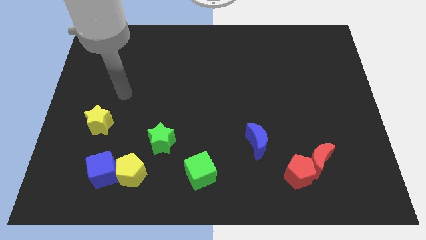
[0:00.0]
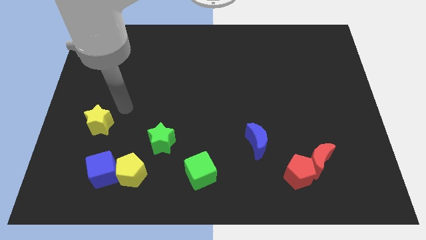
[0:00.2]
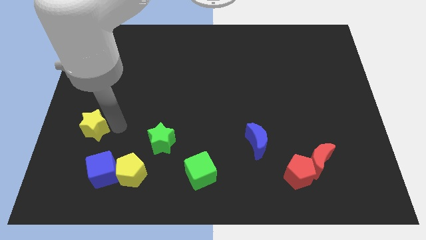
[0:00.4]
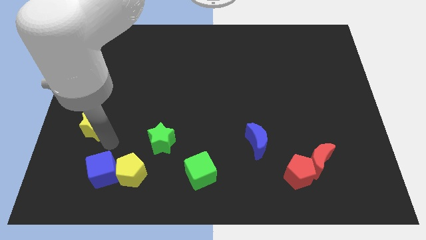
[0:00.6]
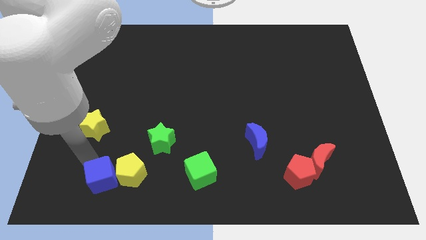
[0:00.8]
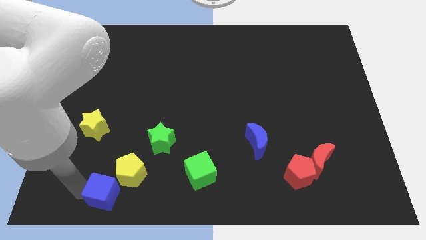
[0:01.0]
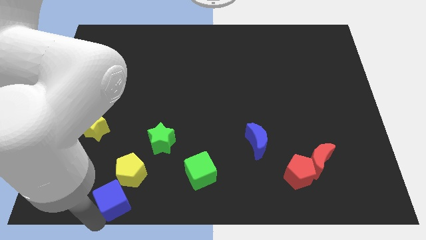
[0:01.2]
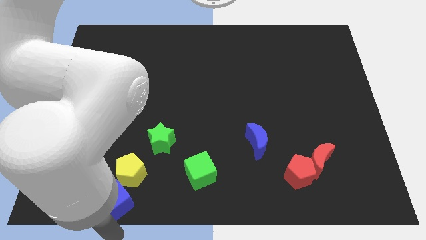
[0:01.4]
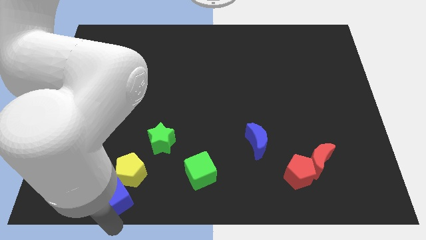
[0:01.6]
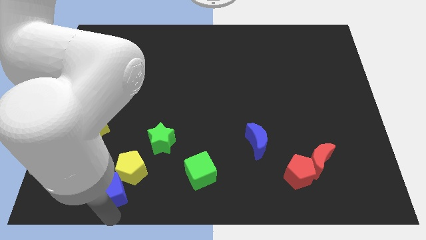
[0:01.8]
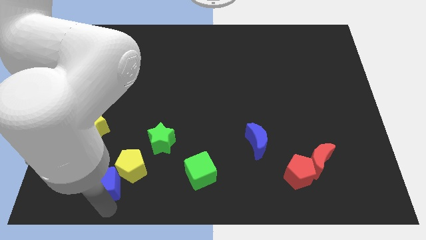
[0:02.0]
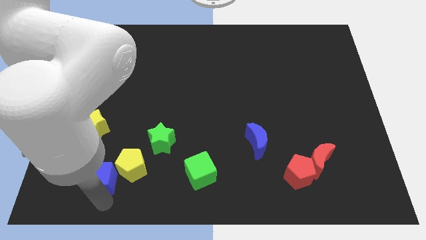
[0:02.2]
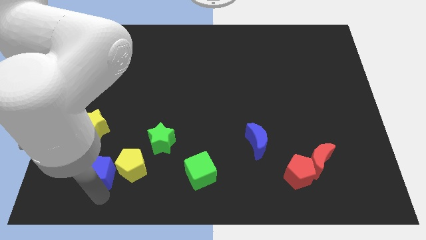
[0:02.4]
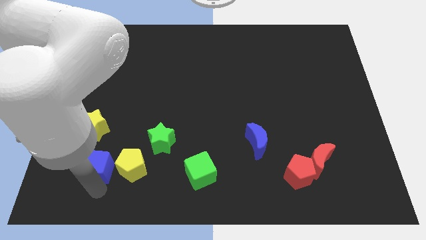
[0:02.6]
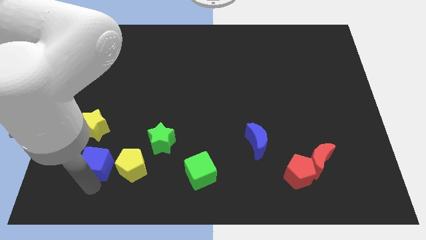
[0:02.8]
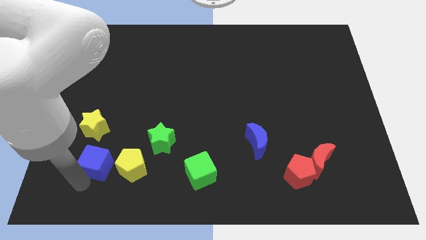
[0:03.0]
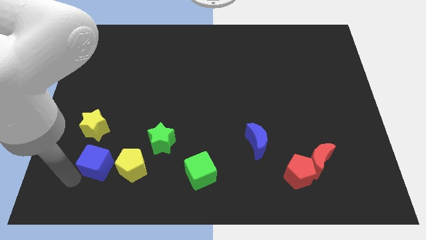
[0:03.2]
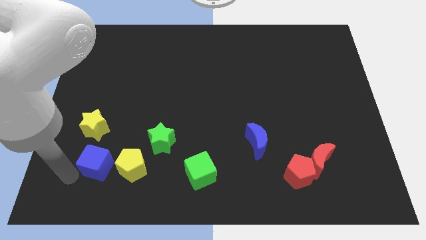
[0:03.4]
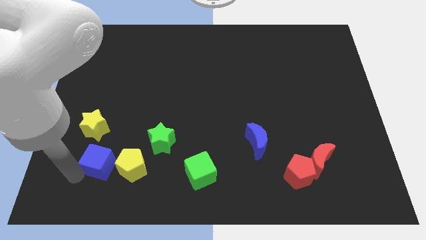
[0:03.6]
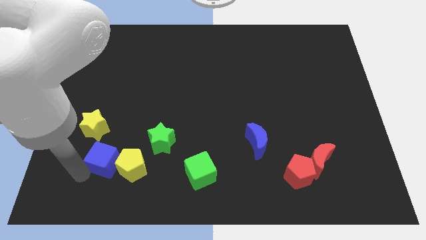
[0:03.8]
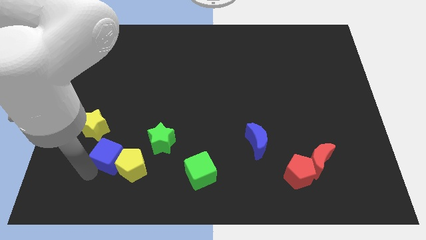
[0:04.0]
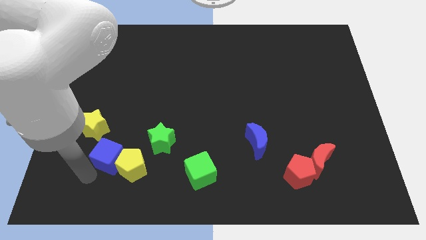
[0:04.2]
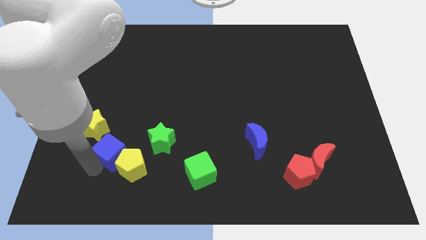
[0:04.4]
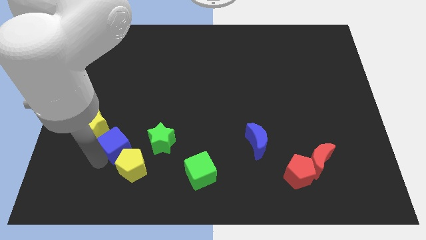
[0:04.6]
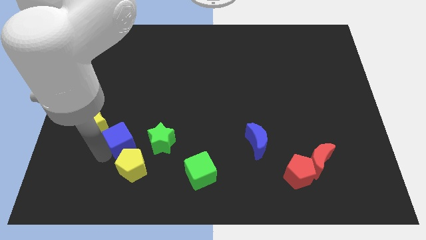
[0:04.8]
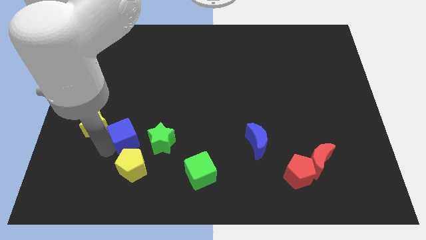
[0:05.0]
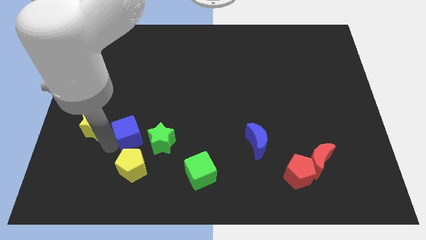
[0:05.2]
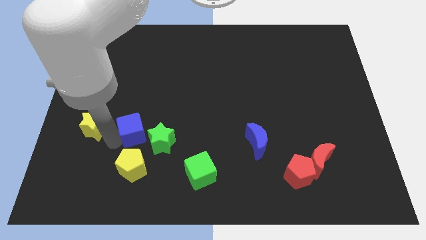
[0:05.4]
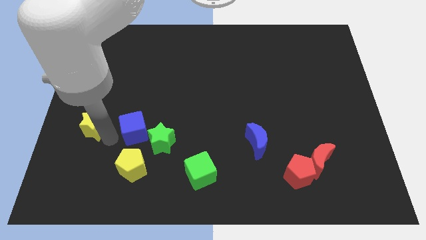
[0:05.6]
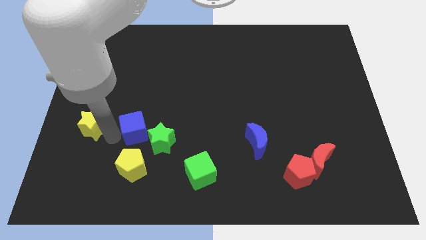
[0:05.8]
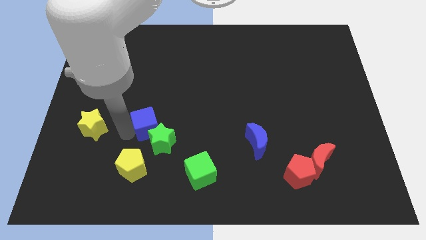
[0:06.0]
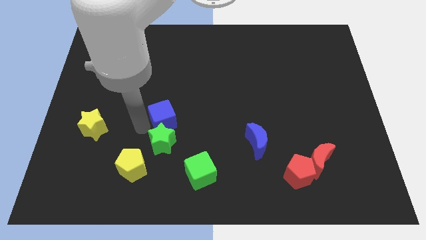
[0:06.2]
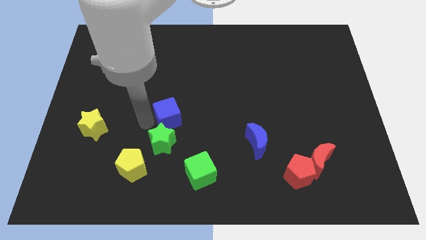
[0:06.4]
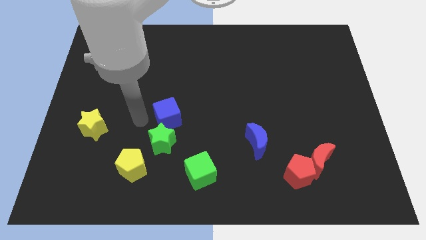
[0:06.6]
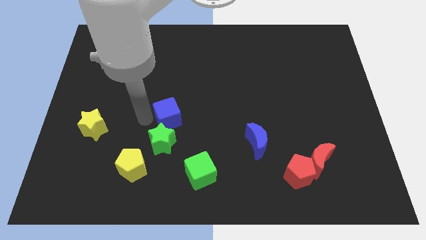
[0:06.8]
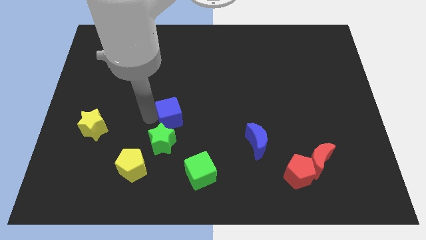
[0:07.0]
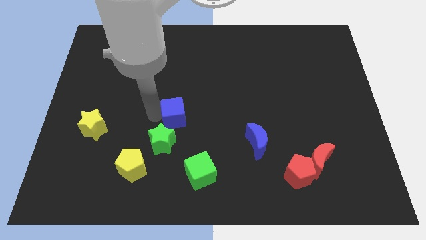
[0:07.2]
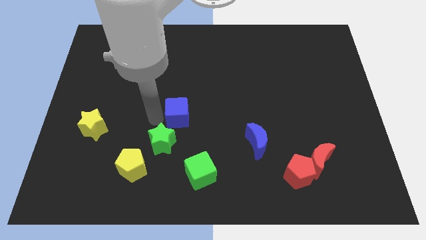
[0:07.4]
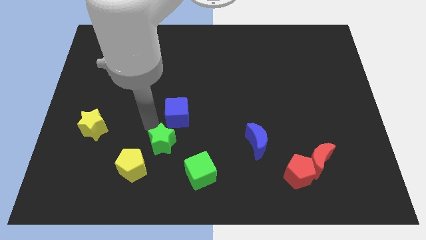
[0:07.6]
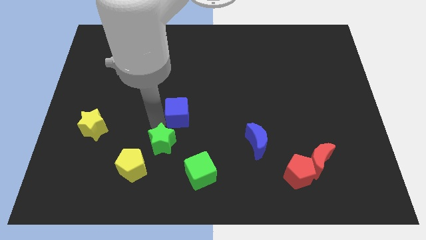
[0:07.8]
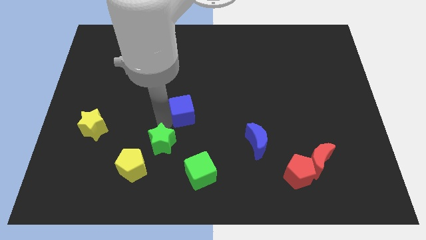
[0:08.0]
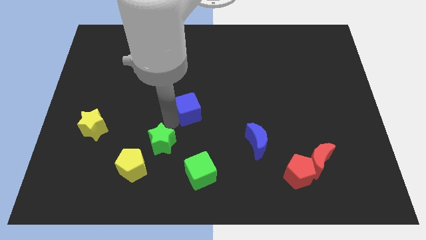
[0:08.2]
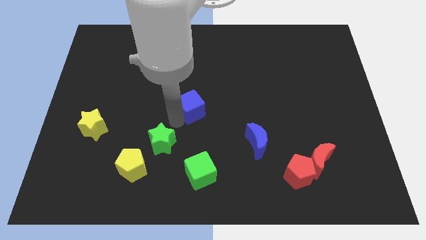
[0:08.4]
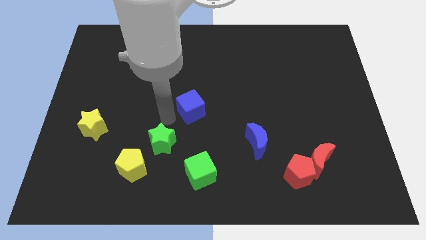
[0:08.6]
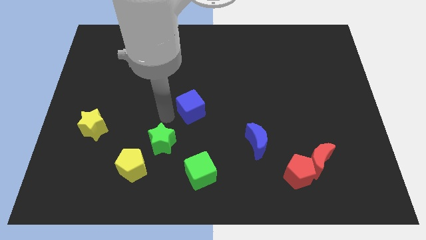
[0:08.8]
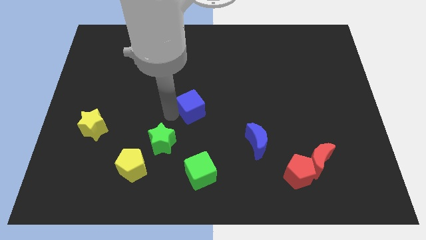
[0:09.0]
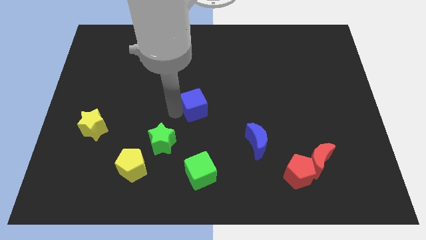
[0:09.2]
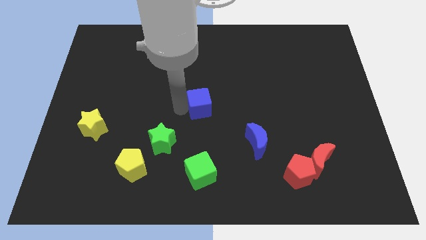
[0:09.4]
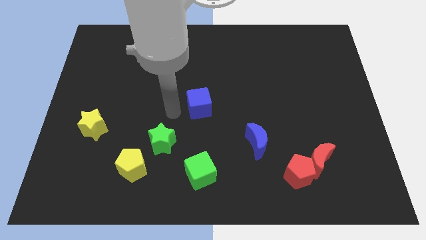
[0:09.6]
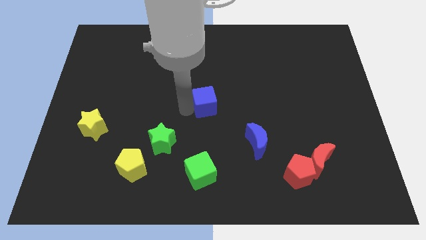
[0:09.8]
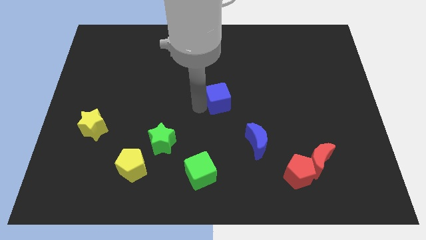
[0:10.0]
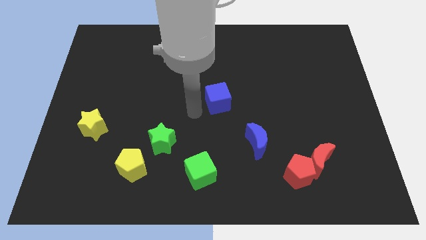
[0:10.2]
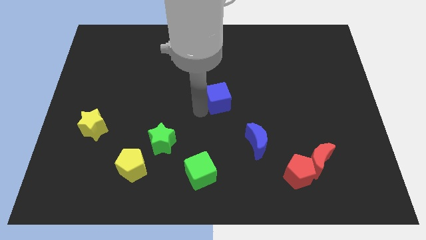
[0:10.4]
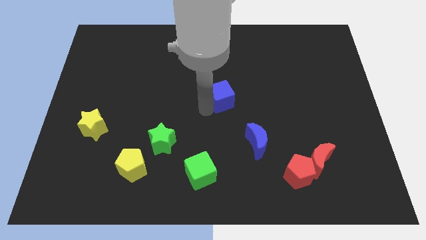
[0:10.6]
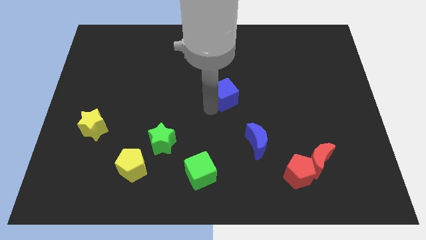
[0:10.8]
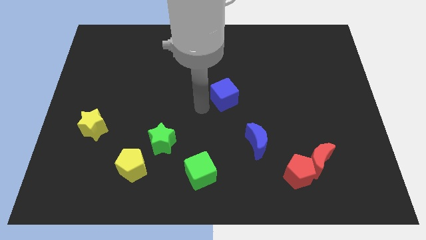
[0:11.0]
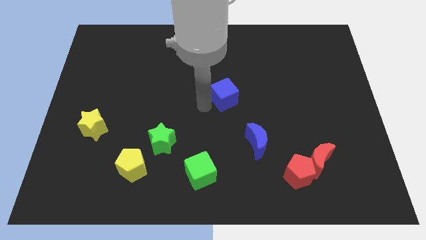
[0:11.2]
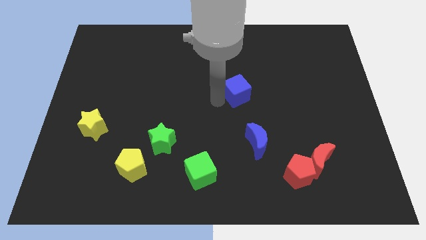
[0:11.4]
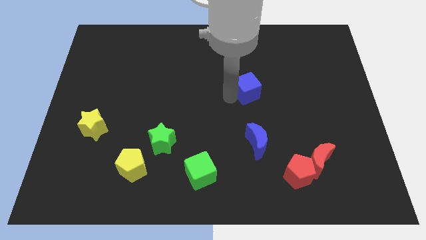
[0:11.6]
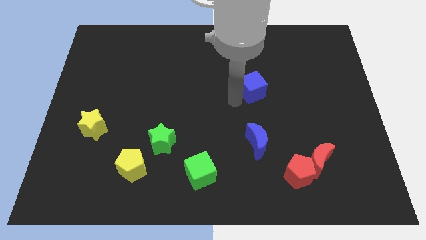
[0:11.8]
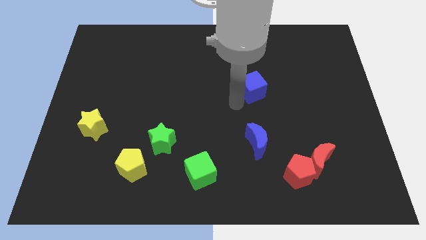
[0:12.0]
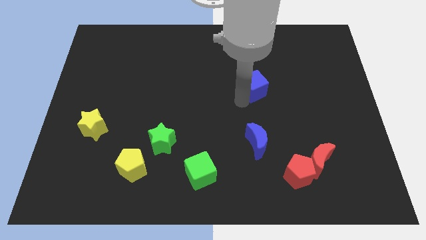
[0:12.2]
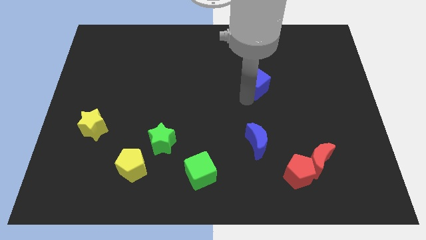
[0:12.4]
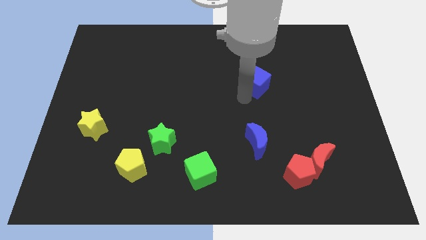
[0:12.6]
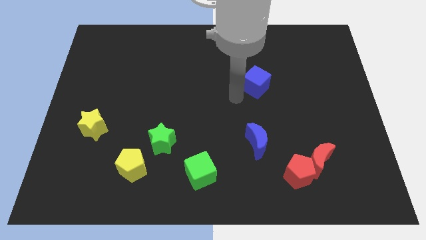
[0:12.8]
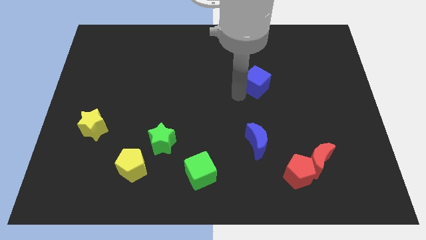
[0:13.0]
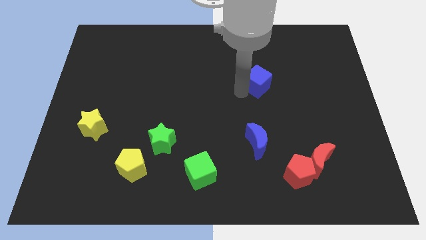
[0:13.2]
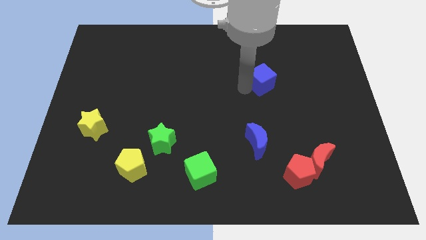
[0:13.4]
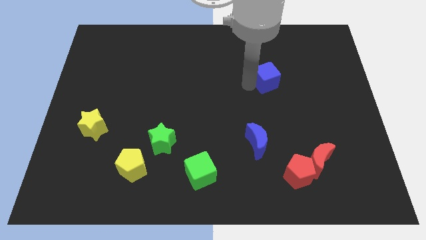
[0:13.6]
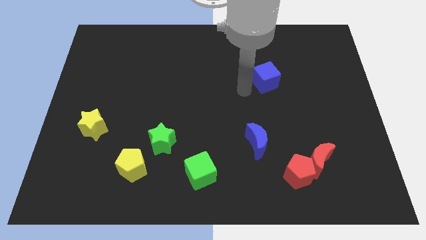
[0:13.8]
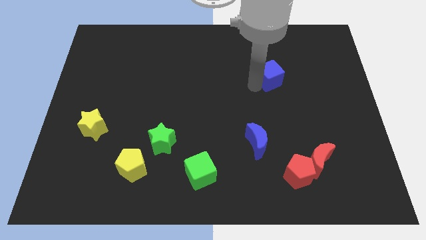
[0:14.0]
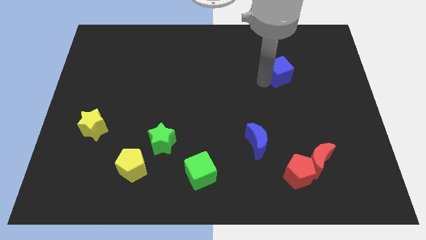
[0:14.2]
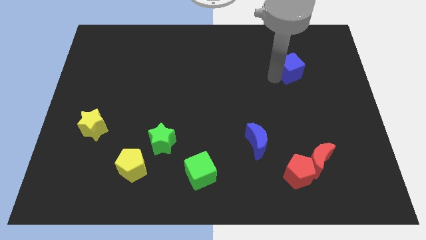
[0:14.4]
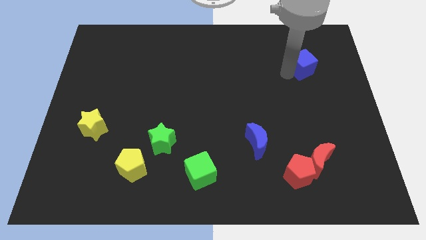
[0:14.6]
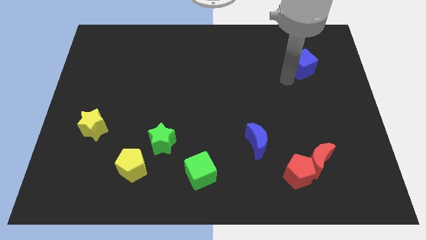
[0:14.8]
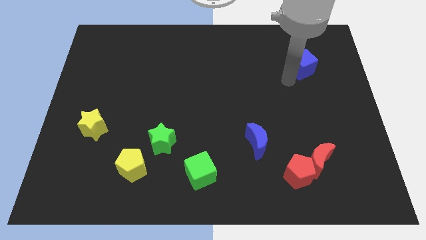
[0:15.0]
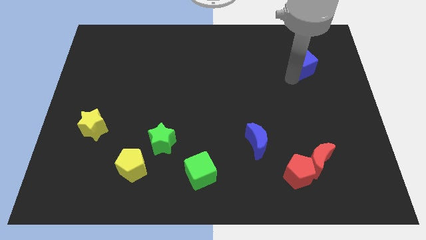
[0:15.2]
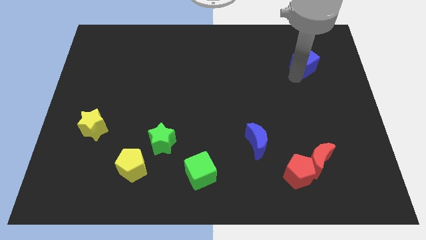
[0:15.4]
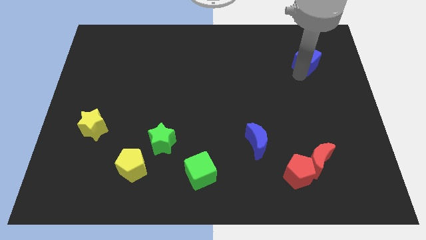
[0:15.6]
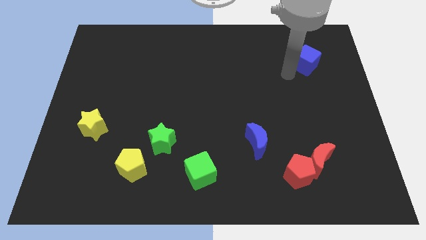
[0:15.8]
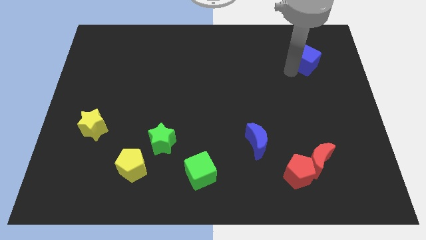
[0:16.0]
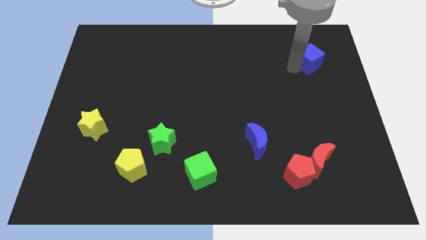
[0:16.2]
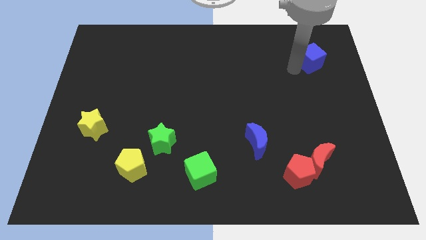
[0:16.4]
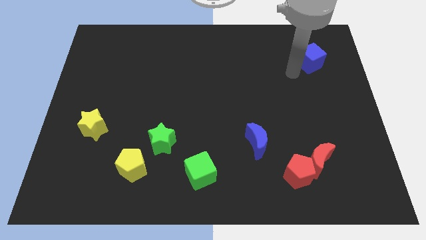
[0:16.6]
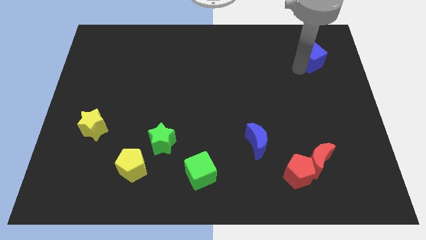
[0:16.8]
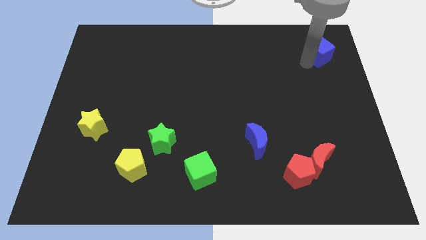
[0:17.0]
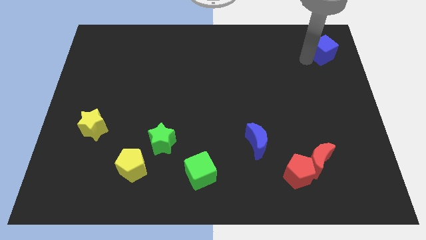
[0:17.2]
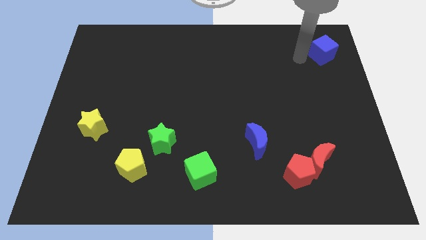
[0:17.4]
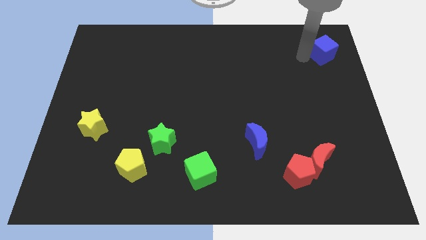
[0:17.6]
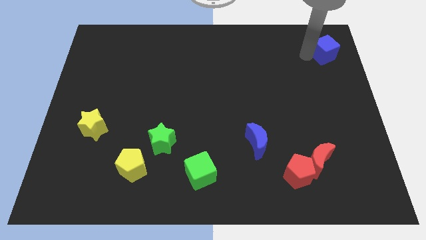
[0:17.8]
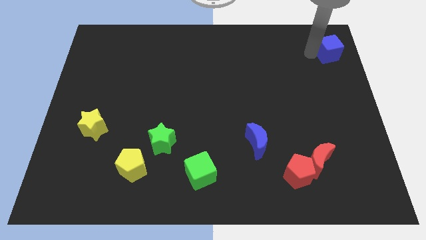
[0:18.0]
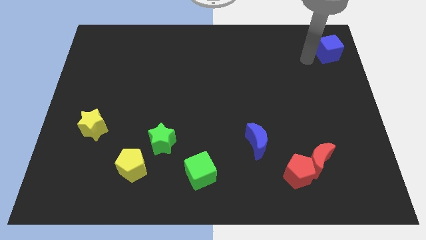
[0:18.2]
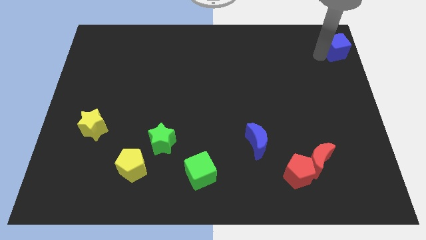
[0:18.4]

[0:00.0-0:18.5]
put the blue cube to the top right corner
